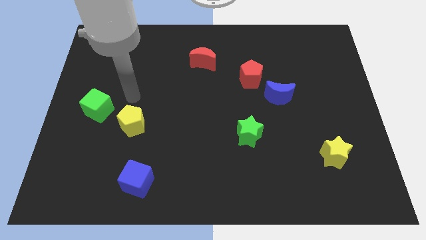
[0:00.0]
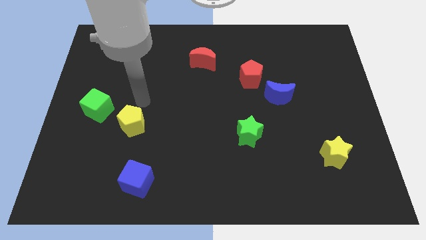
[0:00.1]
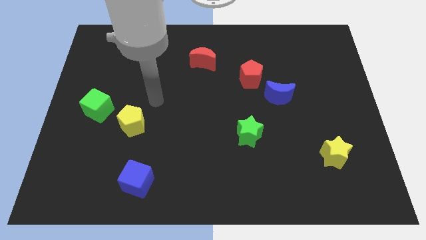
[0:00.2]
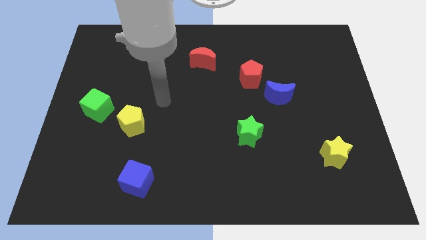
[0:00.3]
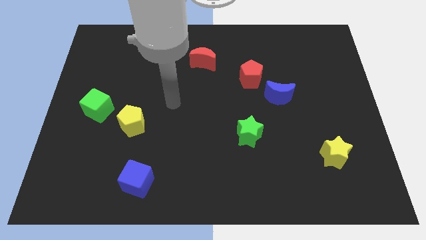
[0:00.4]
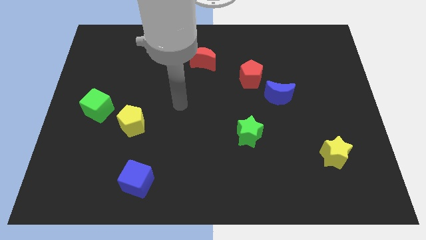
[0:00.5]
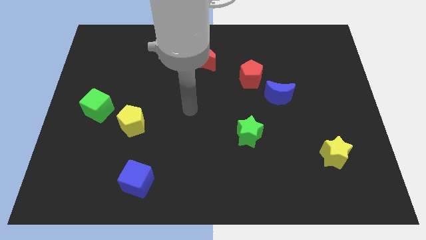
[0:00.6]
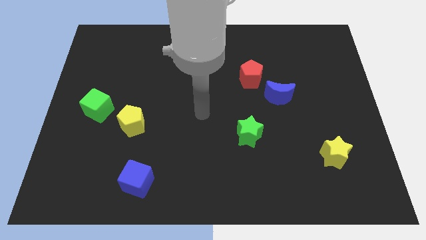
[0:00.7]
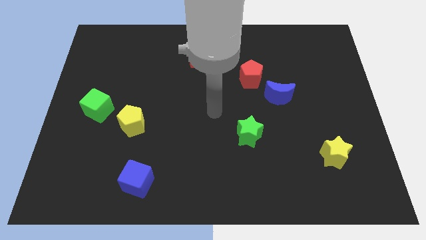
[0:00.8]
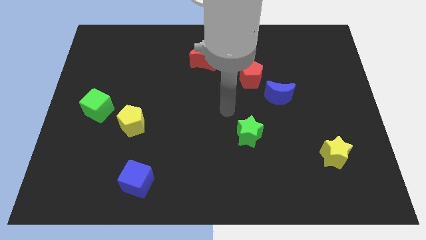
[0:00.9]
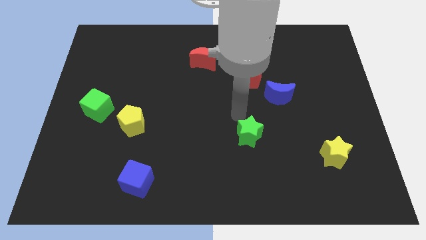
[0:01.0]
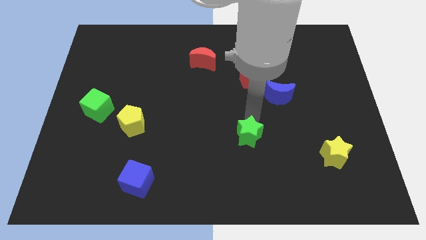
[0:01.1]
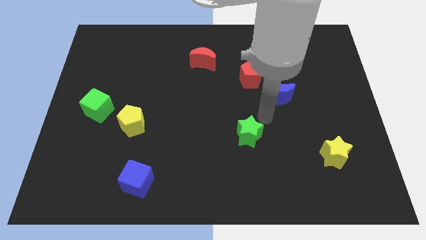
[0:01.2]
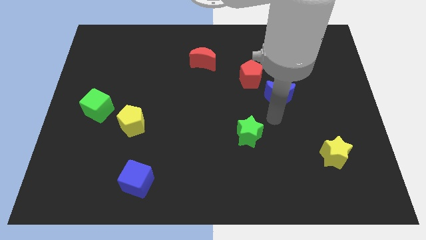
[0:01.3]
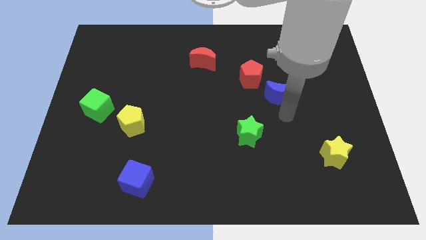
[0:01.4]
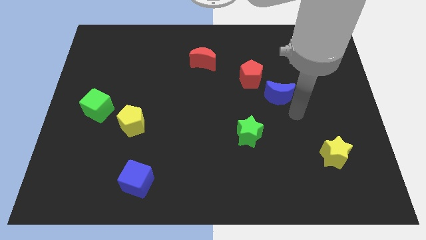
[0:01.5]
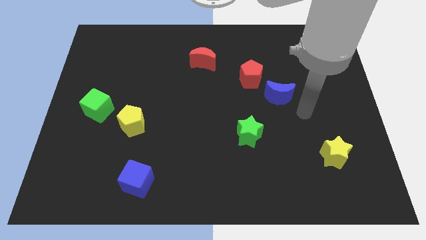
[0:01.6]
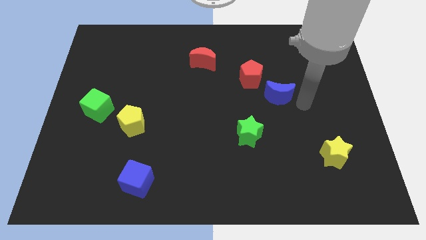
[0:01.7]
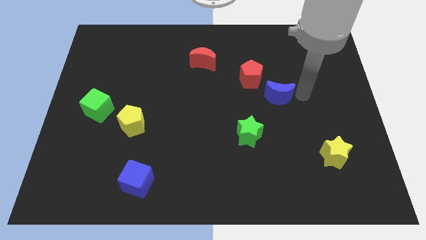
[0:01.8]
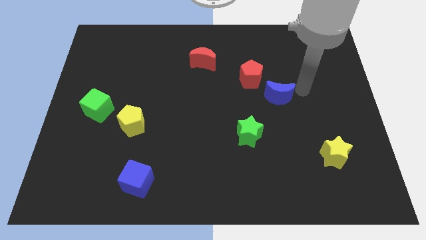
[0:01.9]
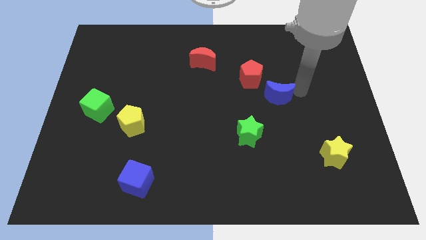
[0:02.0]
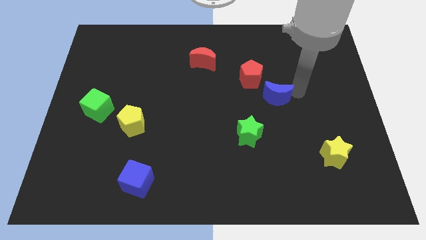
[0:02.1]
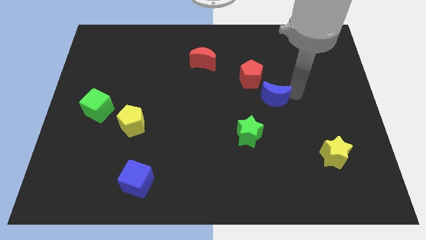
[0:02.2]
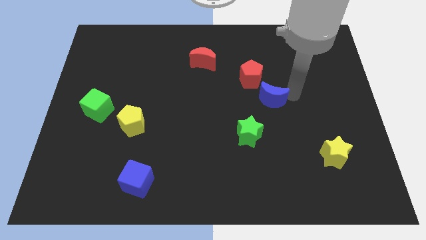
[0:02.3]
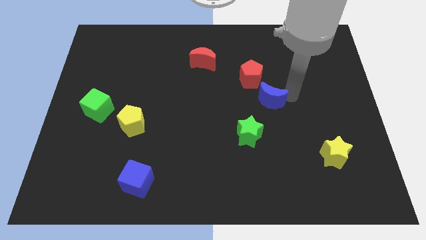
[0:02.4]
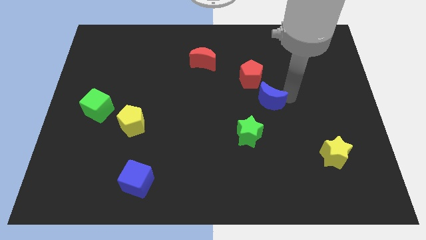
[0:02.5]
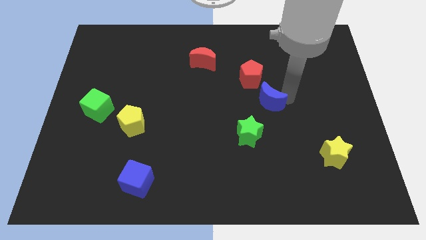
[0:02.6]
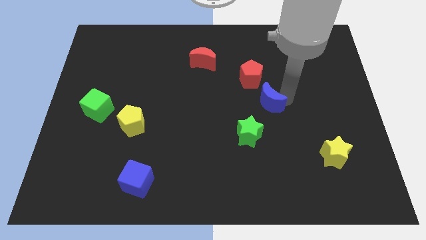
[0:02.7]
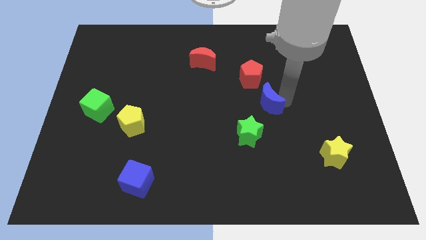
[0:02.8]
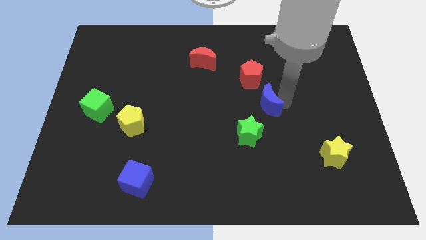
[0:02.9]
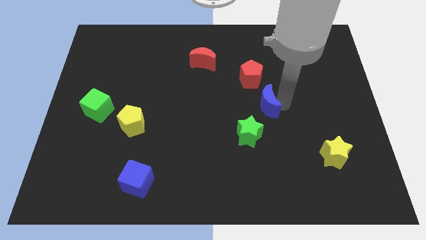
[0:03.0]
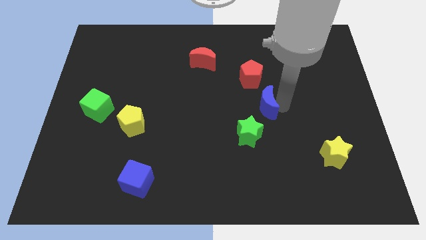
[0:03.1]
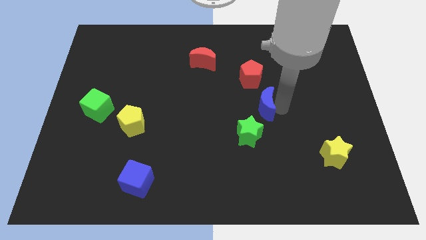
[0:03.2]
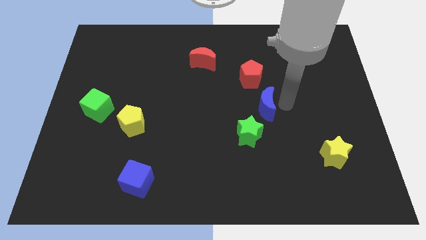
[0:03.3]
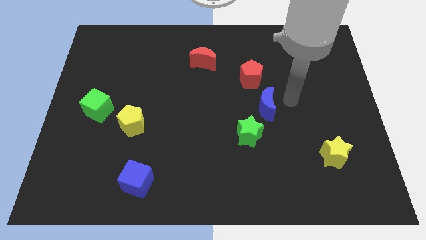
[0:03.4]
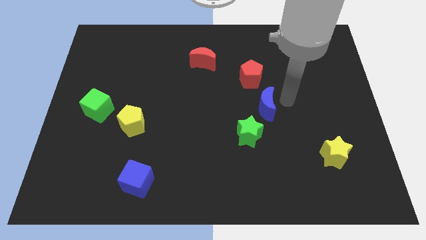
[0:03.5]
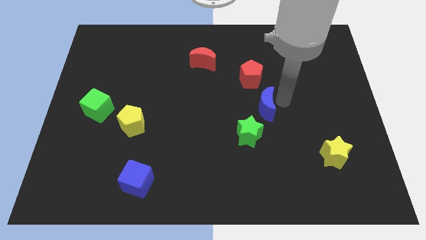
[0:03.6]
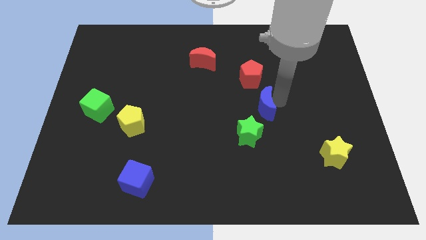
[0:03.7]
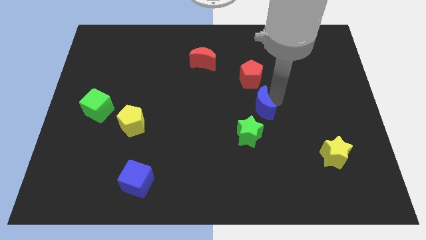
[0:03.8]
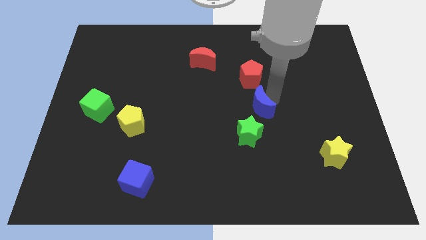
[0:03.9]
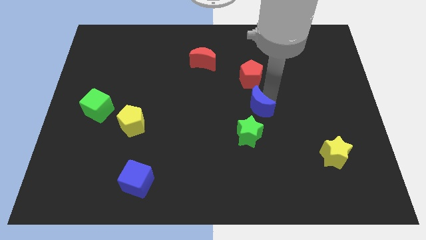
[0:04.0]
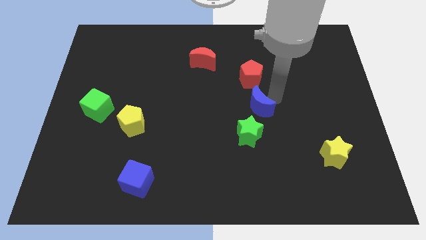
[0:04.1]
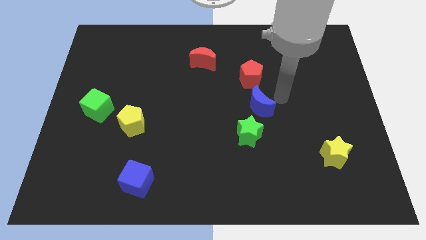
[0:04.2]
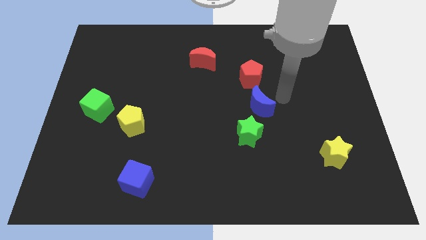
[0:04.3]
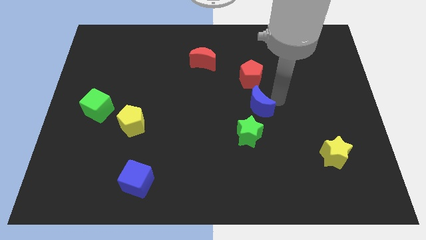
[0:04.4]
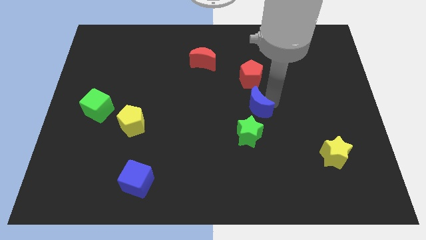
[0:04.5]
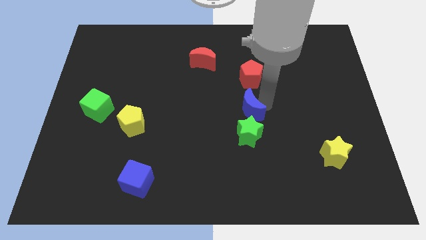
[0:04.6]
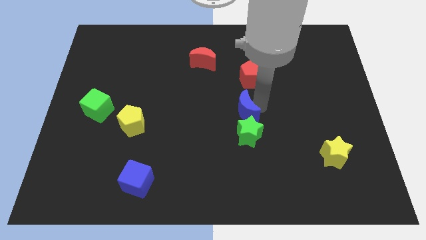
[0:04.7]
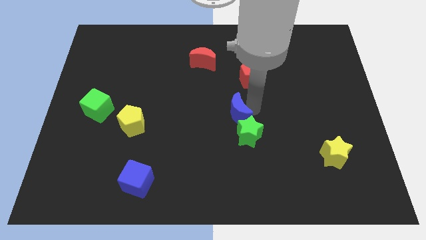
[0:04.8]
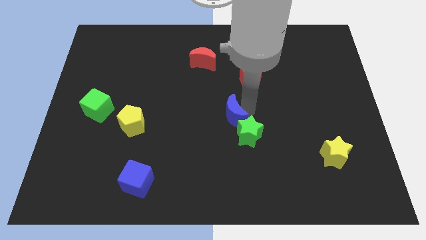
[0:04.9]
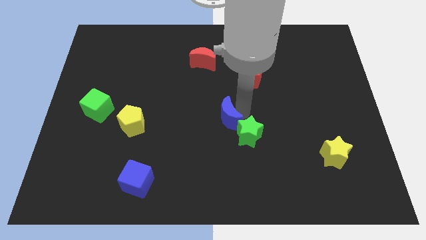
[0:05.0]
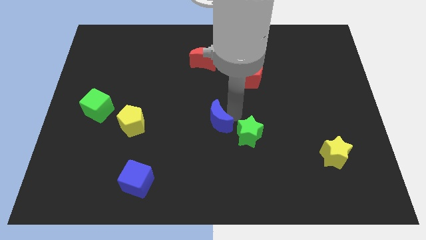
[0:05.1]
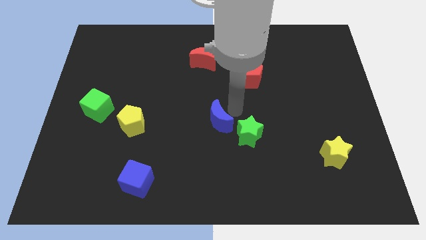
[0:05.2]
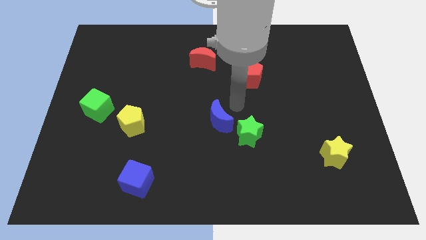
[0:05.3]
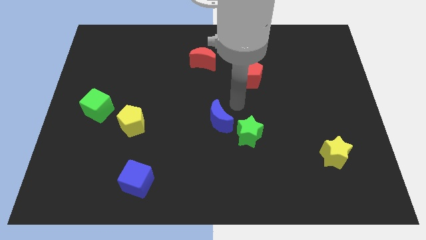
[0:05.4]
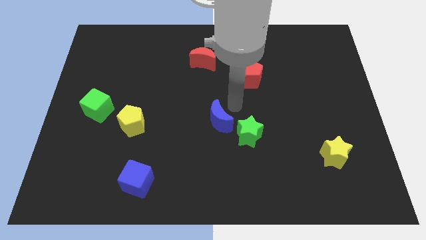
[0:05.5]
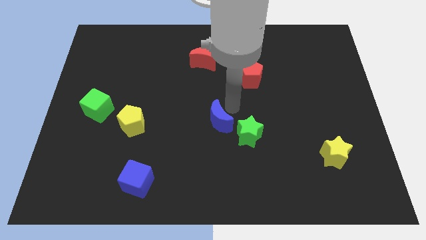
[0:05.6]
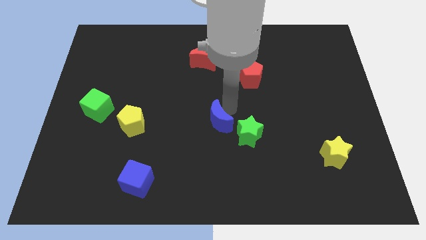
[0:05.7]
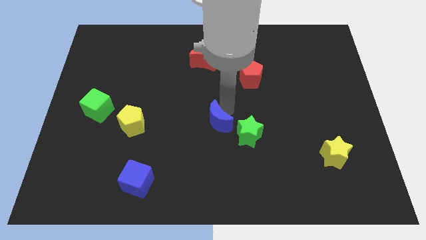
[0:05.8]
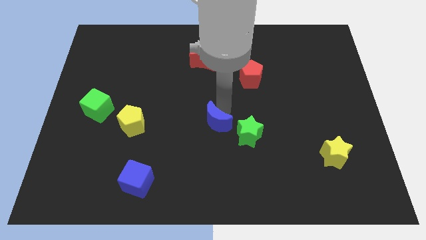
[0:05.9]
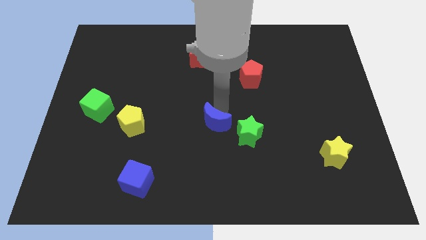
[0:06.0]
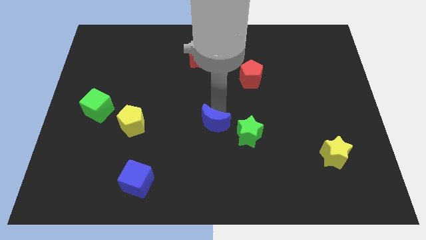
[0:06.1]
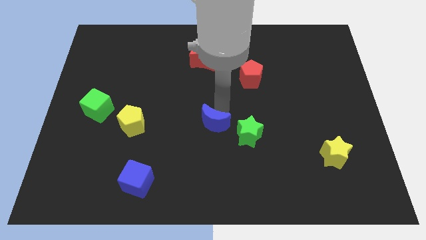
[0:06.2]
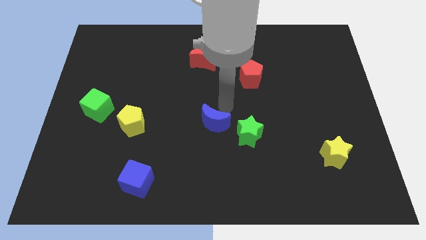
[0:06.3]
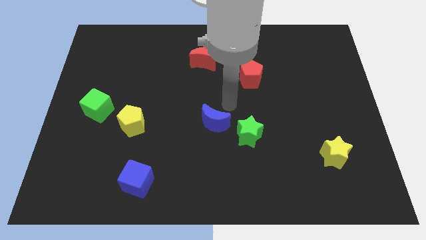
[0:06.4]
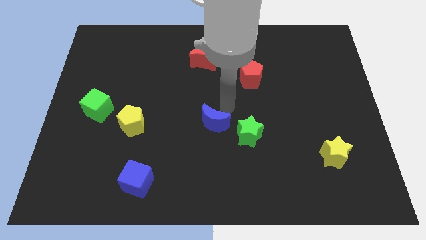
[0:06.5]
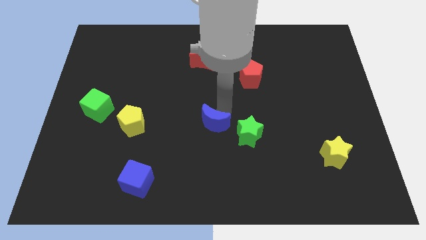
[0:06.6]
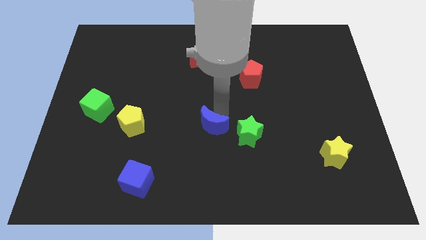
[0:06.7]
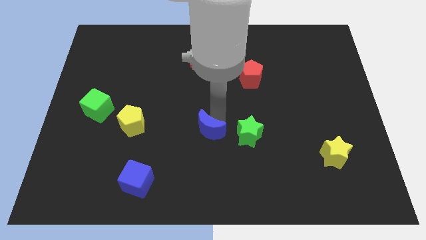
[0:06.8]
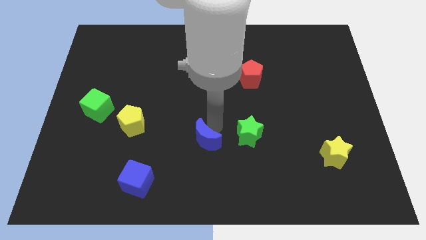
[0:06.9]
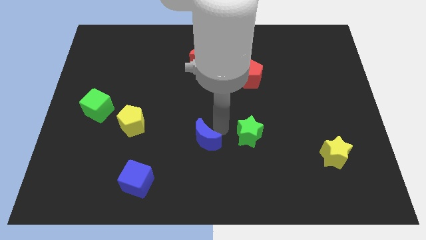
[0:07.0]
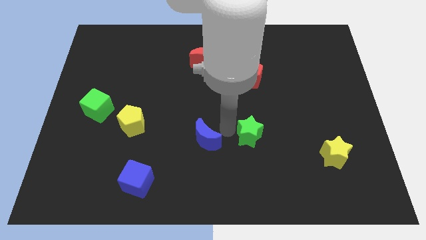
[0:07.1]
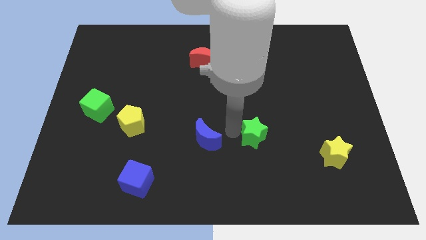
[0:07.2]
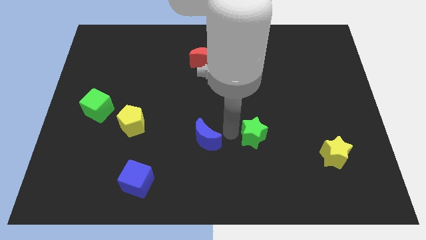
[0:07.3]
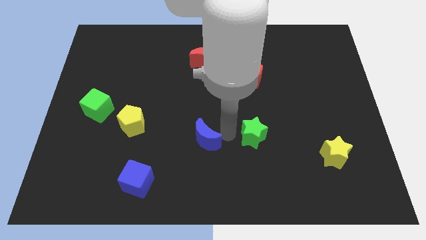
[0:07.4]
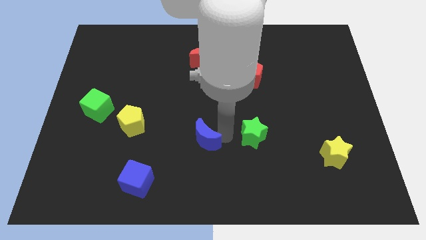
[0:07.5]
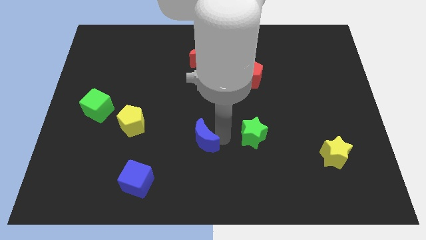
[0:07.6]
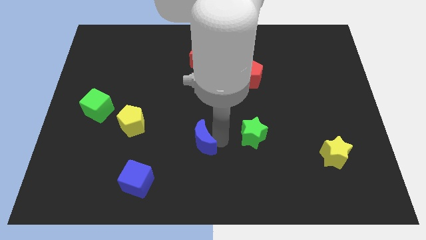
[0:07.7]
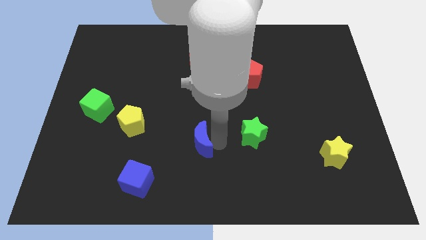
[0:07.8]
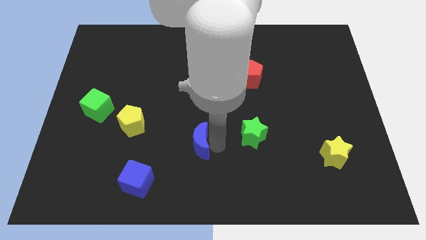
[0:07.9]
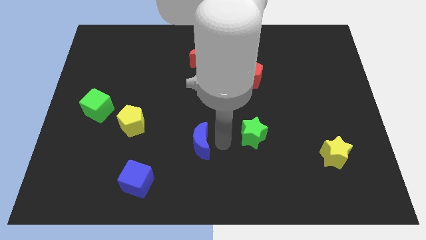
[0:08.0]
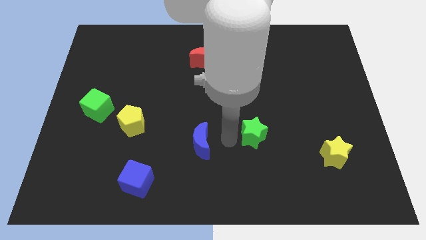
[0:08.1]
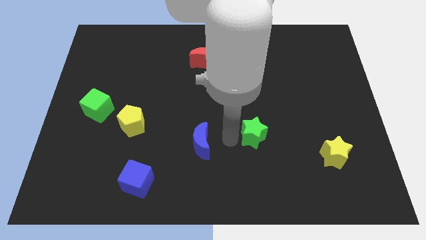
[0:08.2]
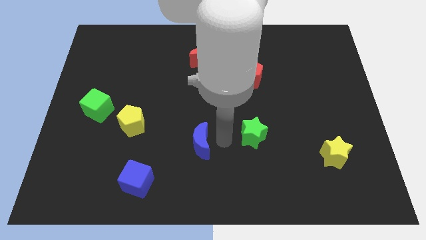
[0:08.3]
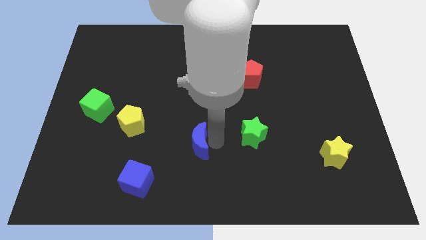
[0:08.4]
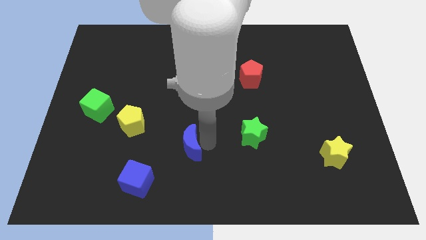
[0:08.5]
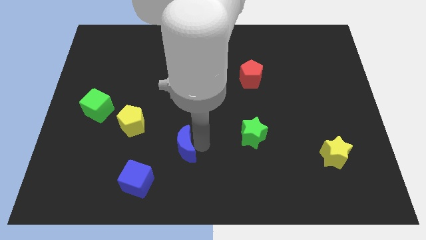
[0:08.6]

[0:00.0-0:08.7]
slide the blue moon to the top right of the blue cube
